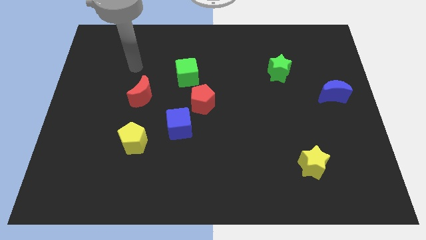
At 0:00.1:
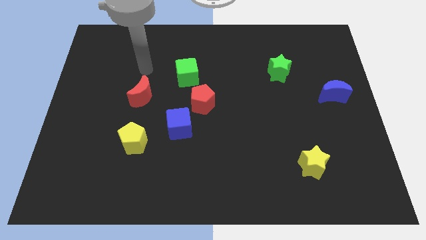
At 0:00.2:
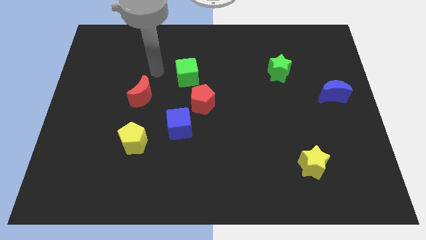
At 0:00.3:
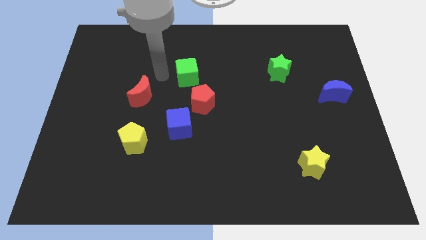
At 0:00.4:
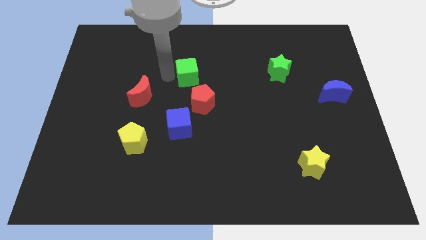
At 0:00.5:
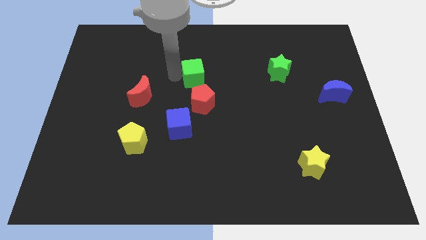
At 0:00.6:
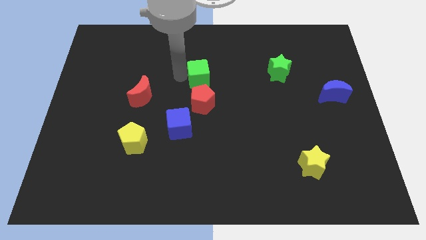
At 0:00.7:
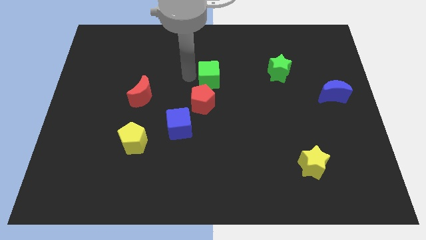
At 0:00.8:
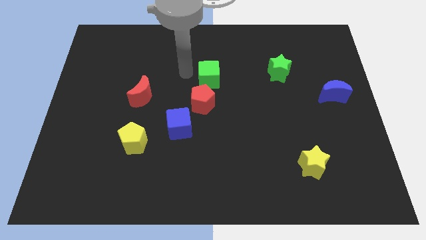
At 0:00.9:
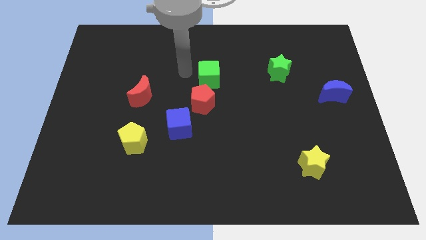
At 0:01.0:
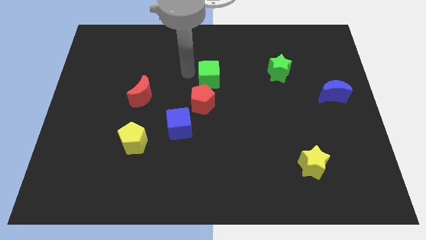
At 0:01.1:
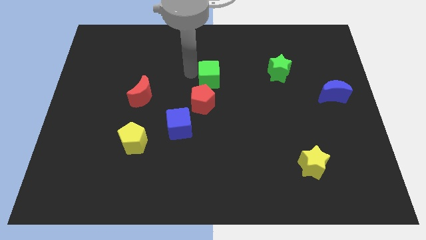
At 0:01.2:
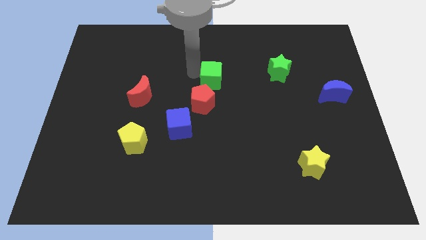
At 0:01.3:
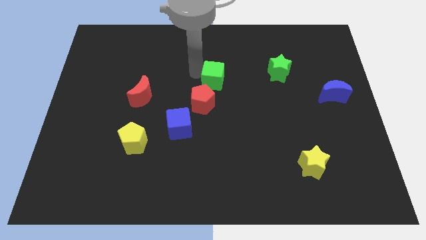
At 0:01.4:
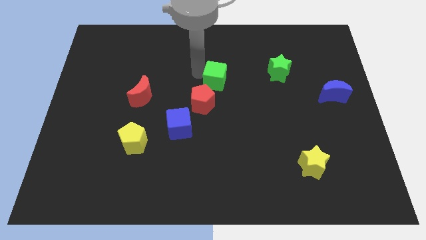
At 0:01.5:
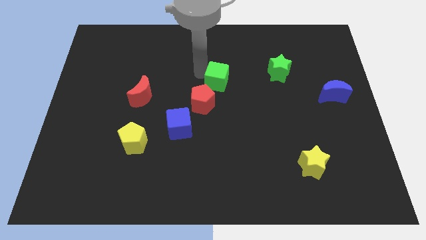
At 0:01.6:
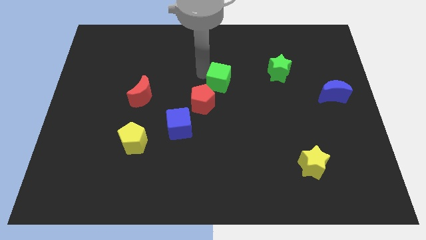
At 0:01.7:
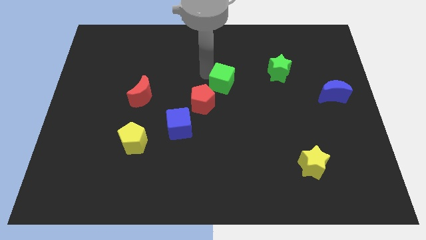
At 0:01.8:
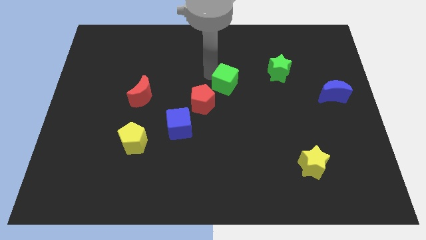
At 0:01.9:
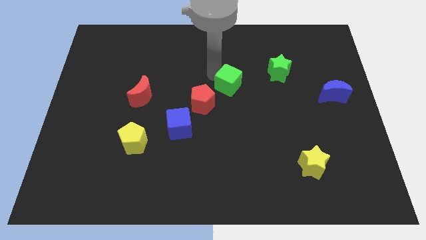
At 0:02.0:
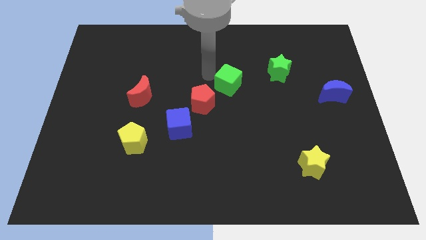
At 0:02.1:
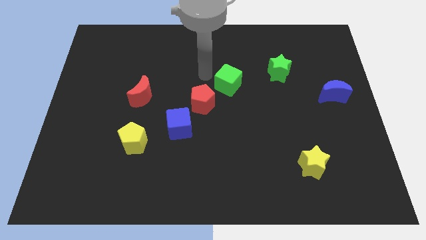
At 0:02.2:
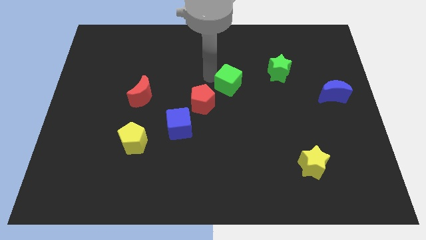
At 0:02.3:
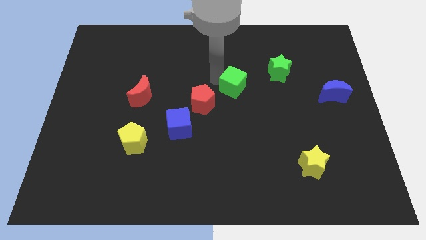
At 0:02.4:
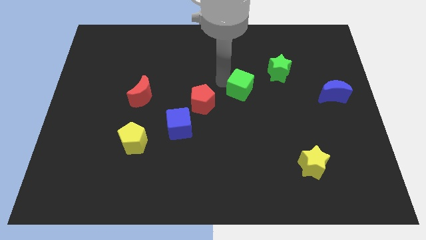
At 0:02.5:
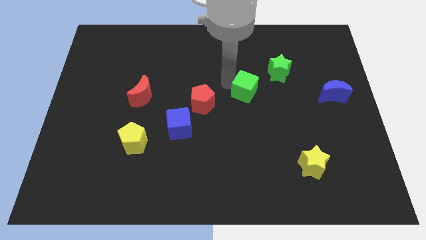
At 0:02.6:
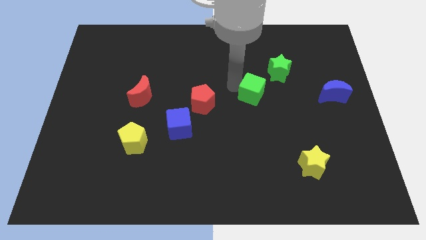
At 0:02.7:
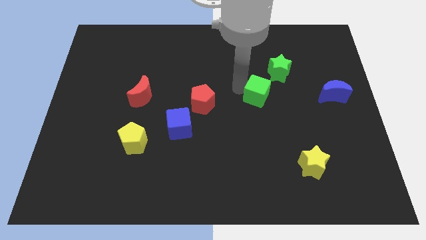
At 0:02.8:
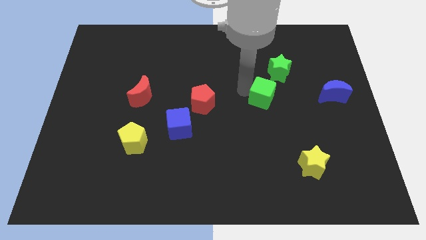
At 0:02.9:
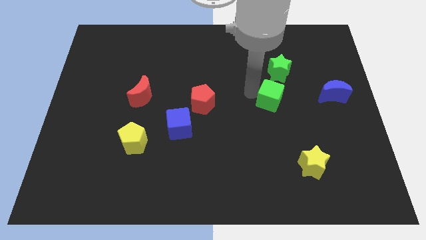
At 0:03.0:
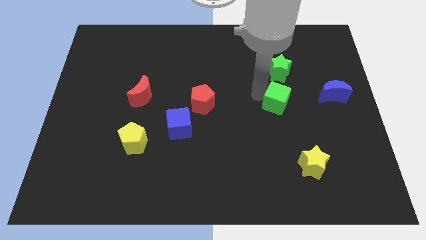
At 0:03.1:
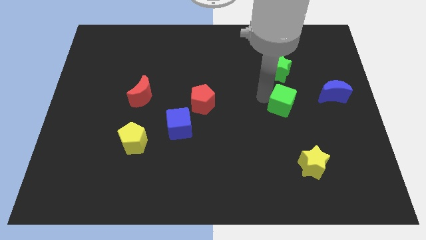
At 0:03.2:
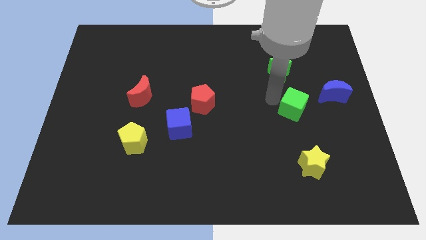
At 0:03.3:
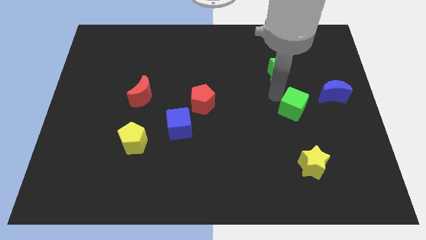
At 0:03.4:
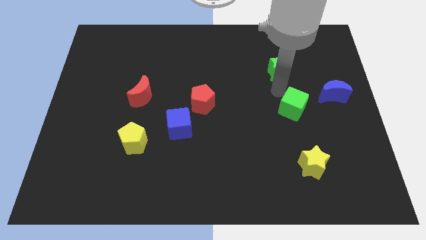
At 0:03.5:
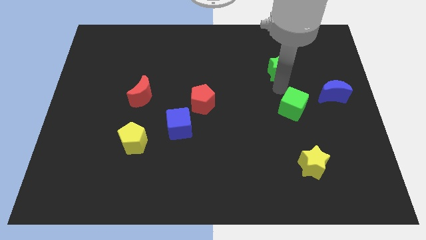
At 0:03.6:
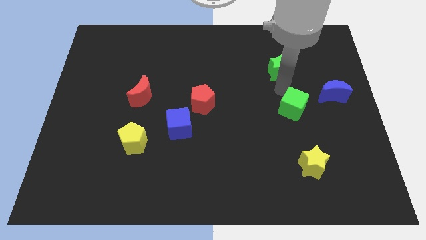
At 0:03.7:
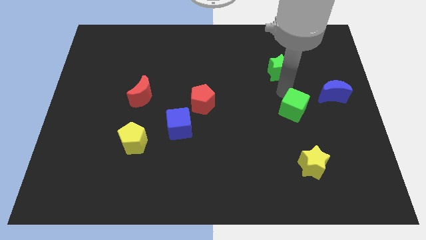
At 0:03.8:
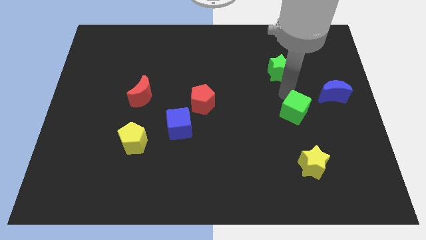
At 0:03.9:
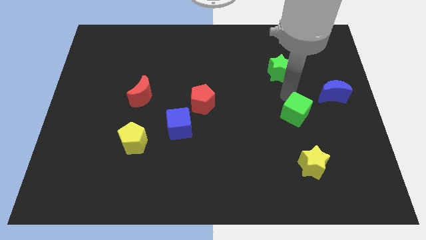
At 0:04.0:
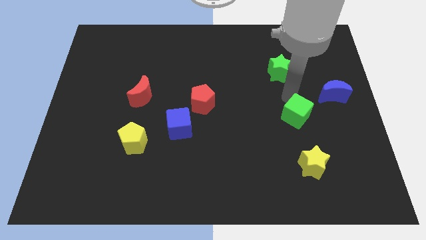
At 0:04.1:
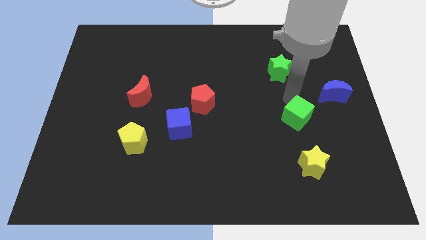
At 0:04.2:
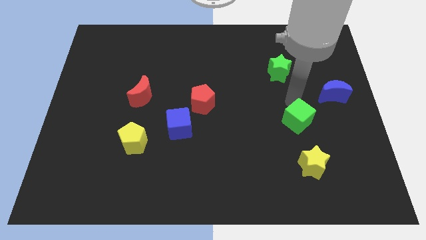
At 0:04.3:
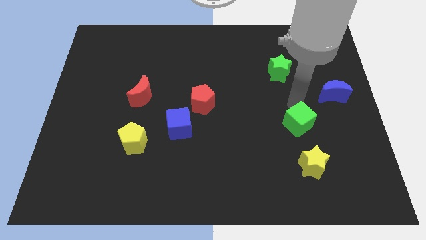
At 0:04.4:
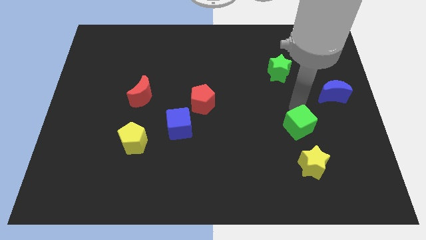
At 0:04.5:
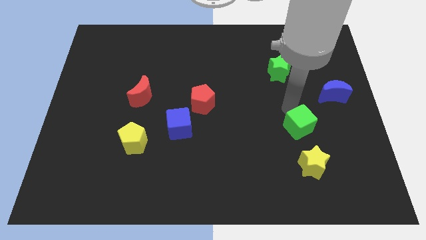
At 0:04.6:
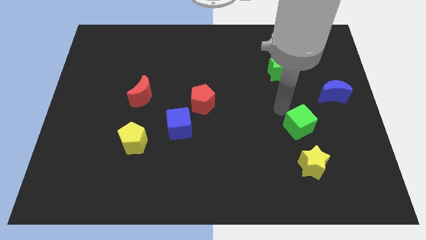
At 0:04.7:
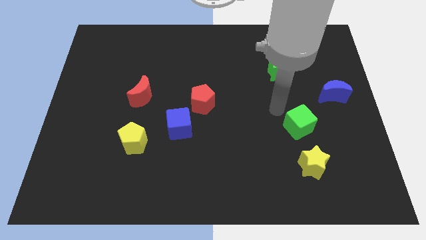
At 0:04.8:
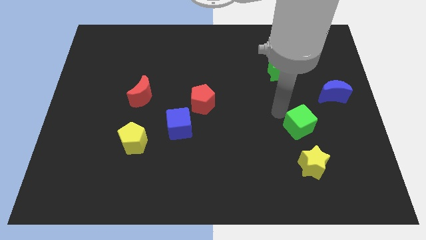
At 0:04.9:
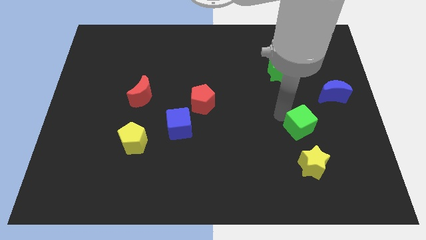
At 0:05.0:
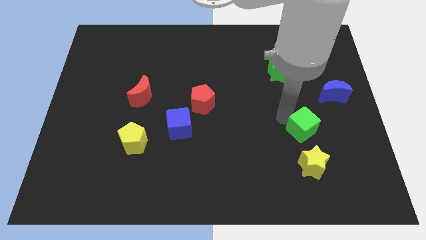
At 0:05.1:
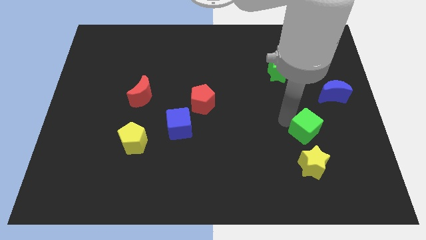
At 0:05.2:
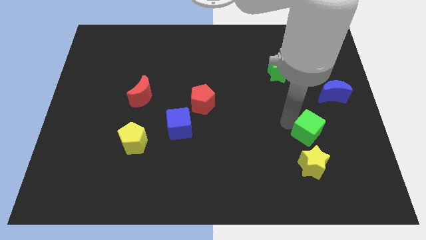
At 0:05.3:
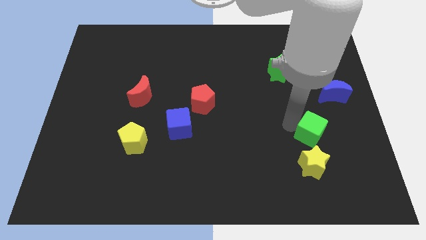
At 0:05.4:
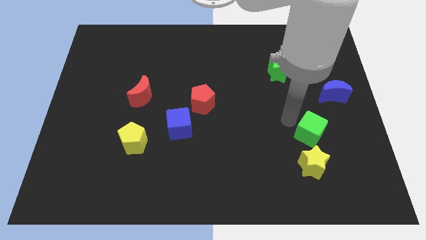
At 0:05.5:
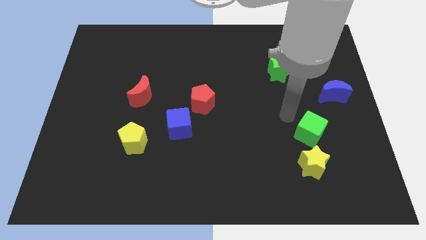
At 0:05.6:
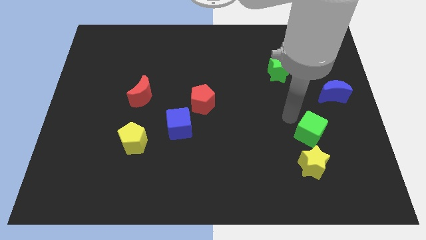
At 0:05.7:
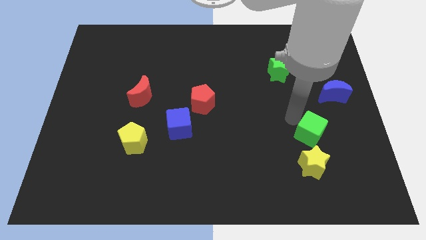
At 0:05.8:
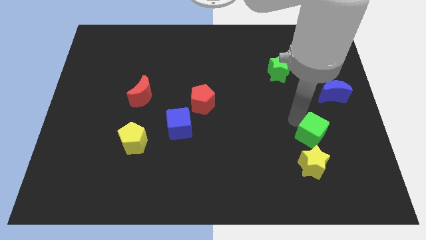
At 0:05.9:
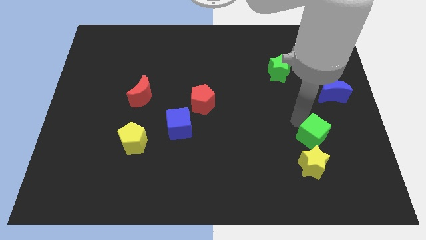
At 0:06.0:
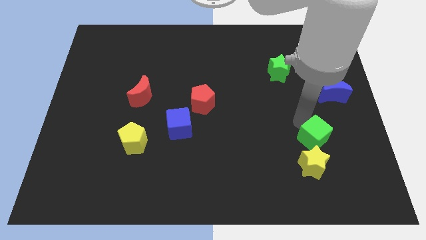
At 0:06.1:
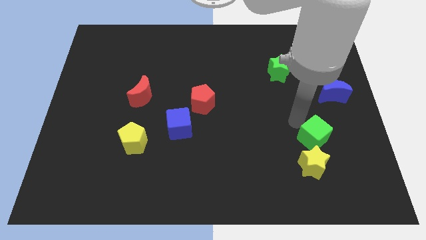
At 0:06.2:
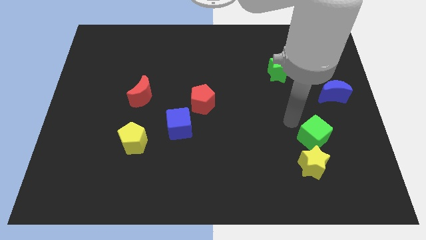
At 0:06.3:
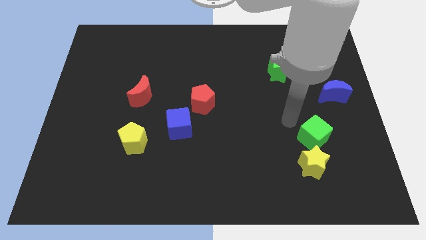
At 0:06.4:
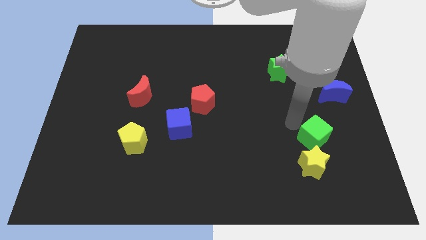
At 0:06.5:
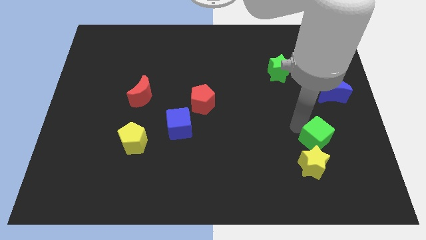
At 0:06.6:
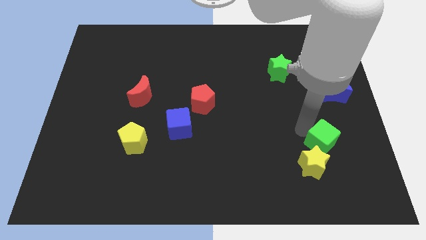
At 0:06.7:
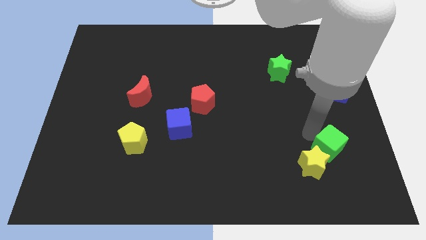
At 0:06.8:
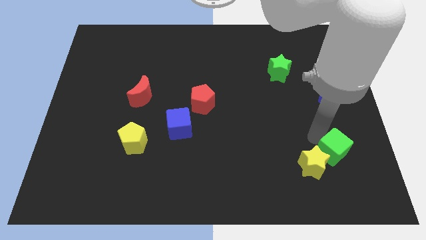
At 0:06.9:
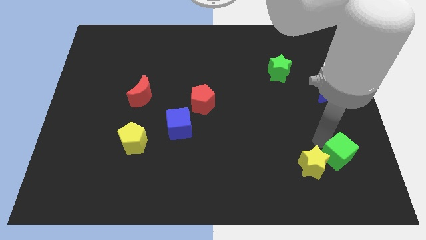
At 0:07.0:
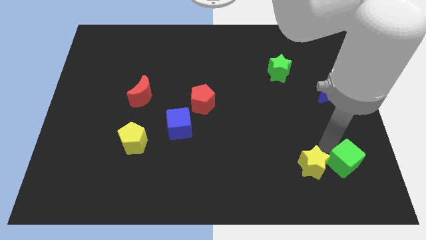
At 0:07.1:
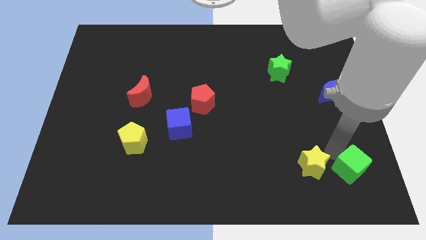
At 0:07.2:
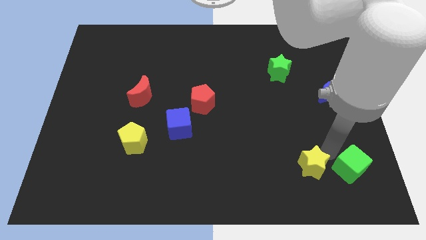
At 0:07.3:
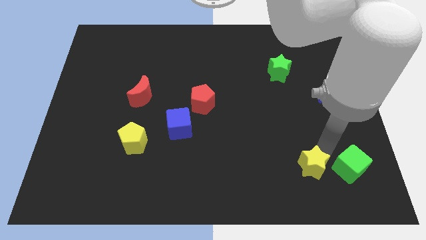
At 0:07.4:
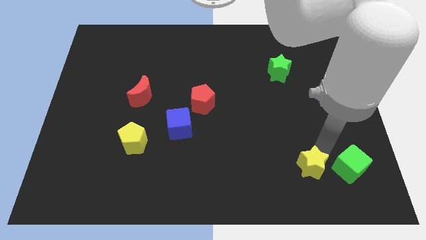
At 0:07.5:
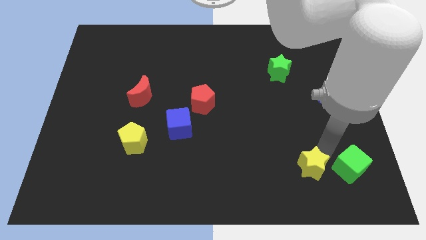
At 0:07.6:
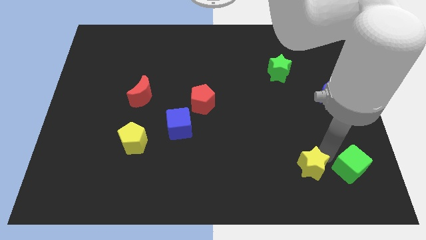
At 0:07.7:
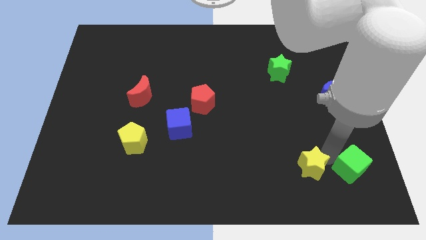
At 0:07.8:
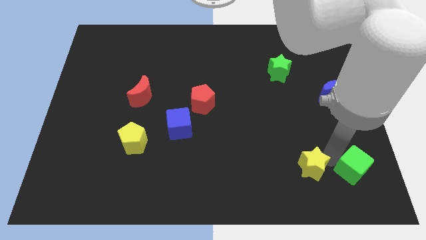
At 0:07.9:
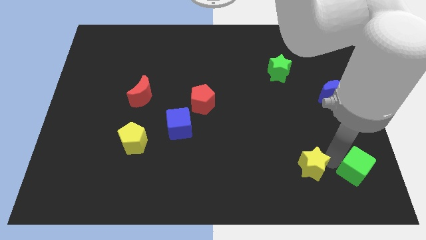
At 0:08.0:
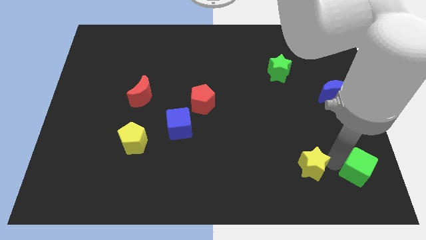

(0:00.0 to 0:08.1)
push the green cube to the bottom right corner
